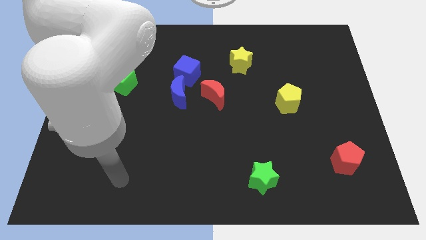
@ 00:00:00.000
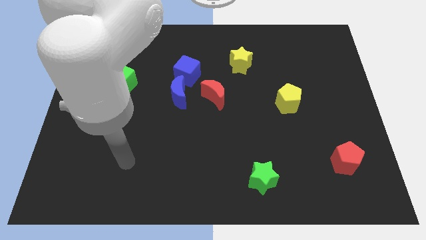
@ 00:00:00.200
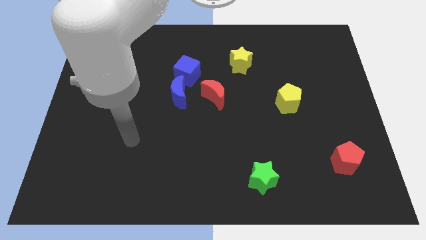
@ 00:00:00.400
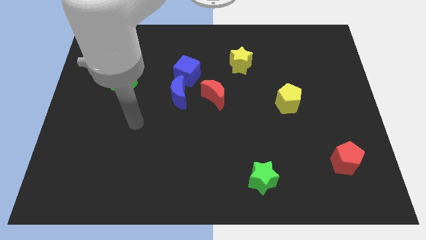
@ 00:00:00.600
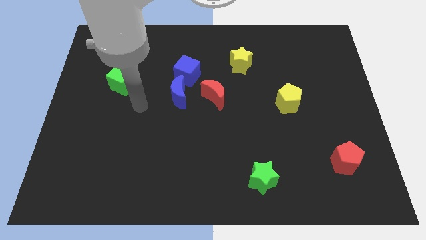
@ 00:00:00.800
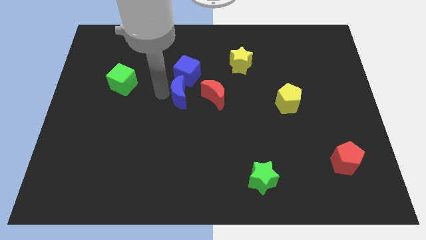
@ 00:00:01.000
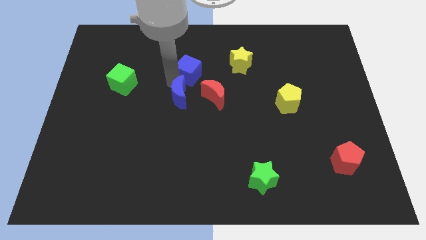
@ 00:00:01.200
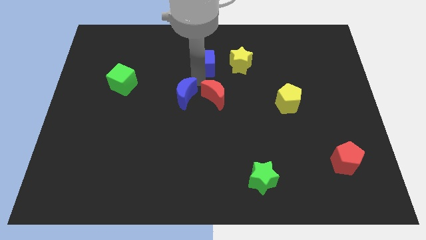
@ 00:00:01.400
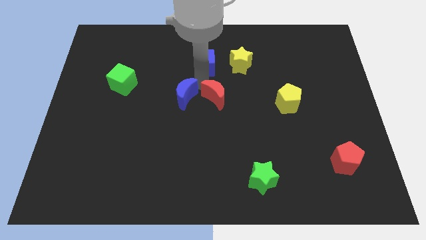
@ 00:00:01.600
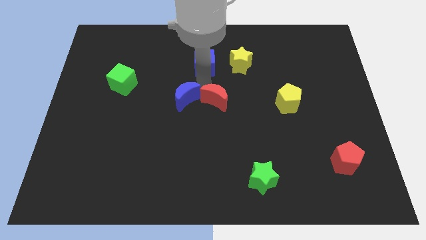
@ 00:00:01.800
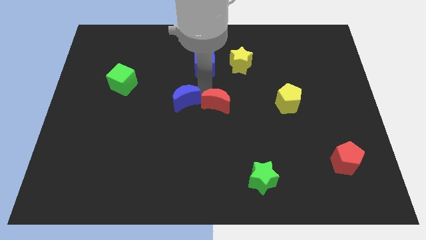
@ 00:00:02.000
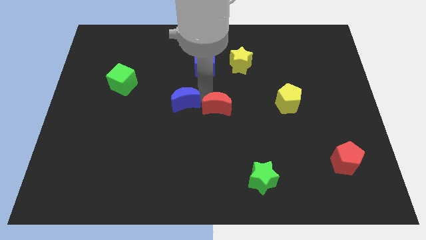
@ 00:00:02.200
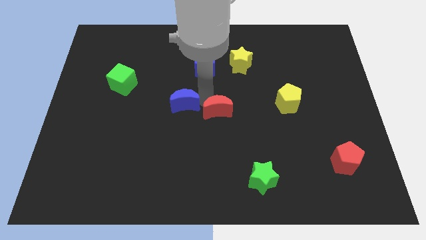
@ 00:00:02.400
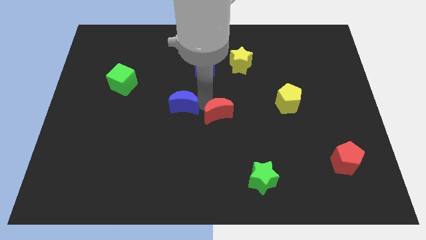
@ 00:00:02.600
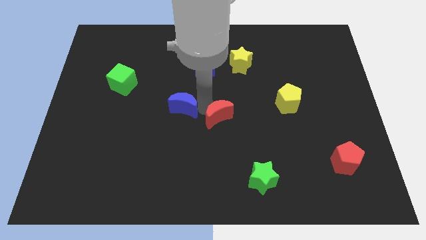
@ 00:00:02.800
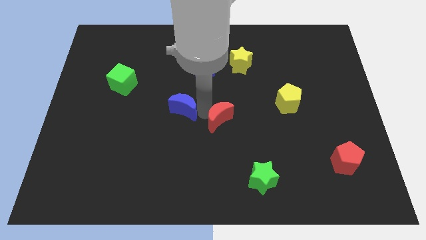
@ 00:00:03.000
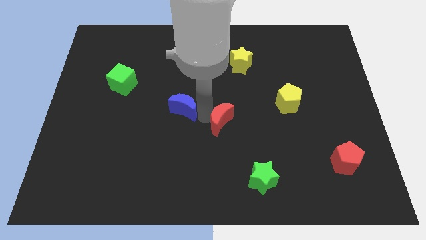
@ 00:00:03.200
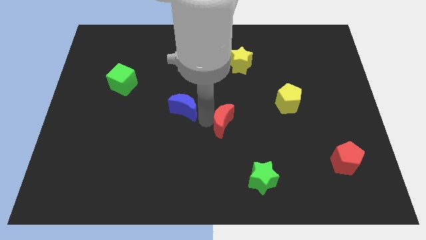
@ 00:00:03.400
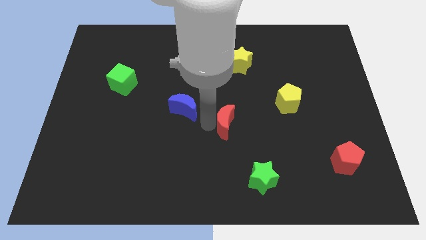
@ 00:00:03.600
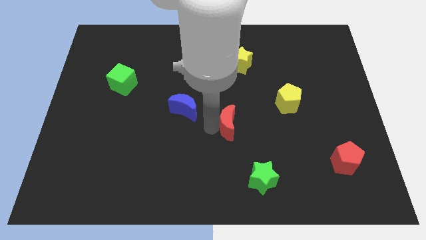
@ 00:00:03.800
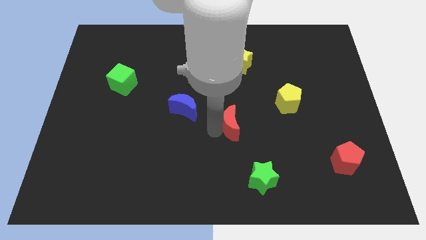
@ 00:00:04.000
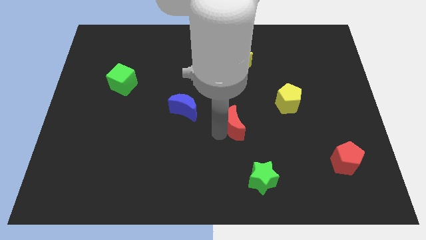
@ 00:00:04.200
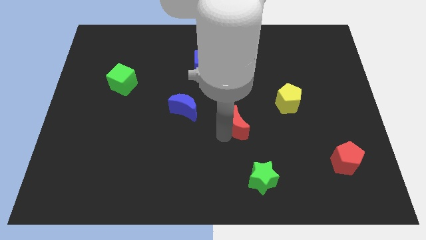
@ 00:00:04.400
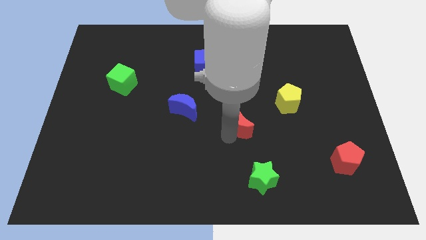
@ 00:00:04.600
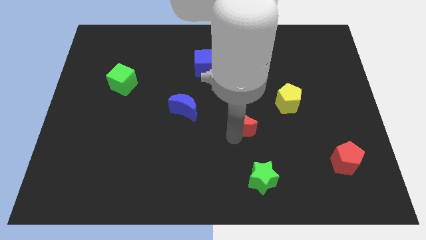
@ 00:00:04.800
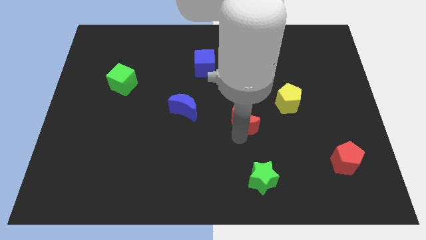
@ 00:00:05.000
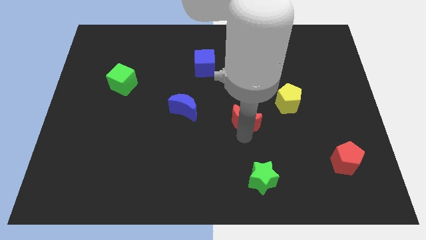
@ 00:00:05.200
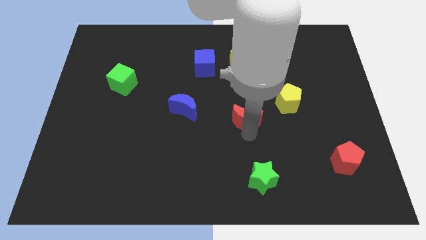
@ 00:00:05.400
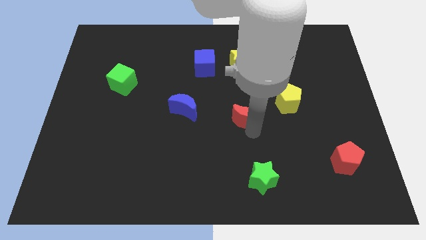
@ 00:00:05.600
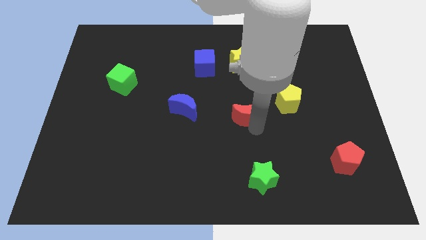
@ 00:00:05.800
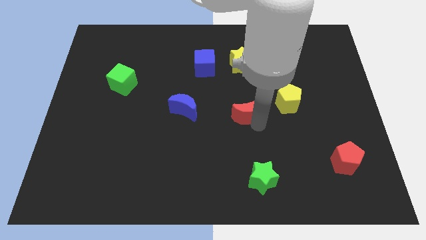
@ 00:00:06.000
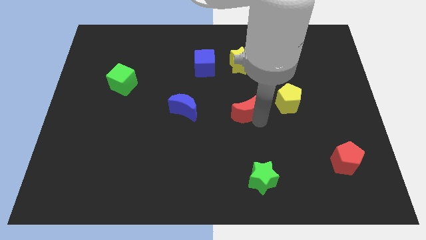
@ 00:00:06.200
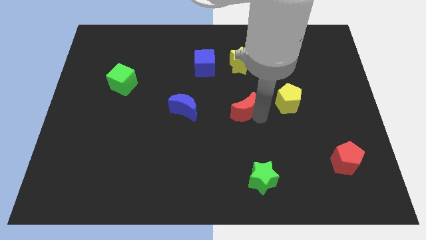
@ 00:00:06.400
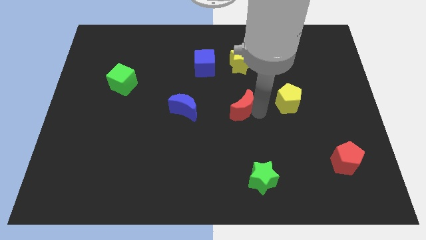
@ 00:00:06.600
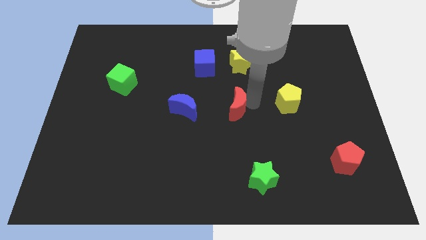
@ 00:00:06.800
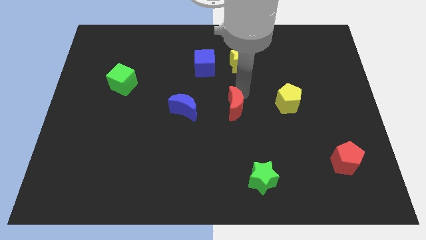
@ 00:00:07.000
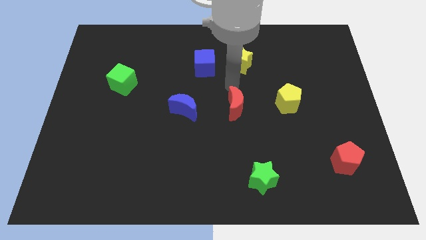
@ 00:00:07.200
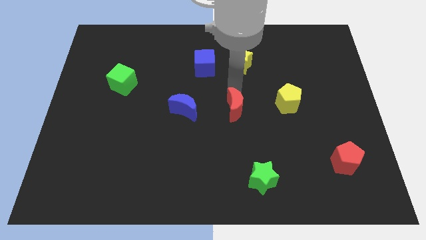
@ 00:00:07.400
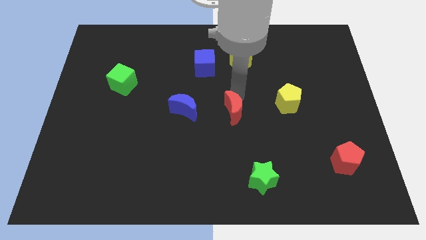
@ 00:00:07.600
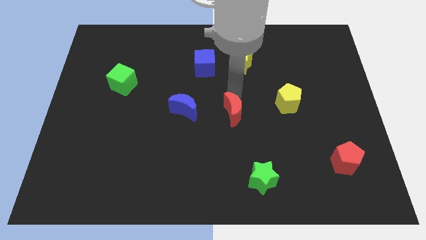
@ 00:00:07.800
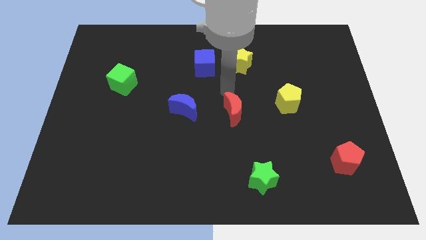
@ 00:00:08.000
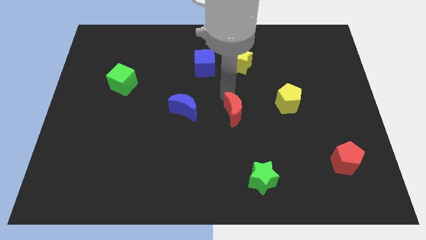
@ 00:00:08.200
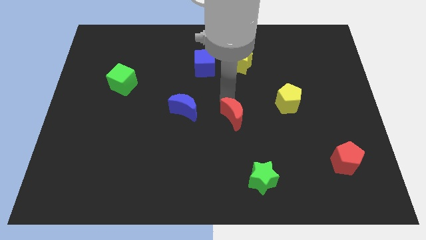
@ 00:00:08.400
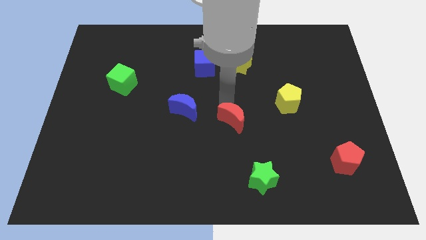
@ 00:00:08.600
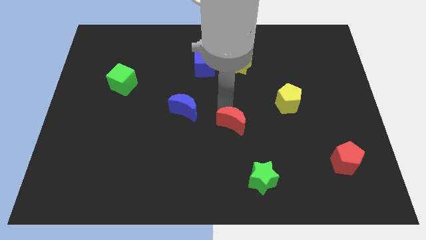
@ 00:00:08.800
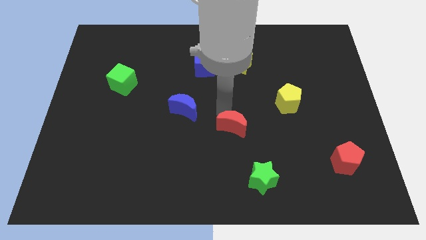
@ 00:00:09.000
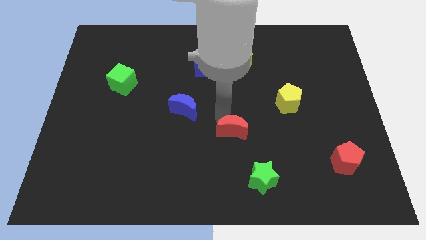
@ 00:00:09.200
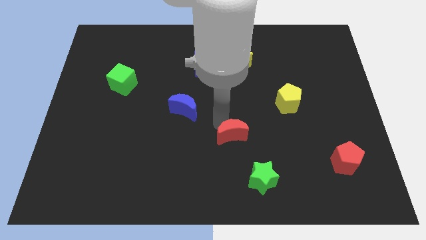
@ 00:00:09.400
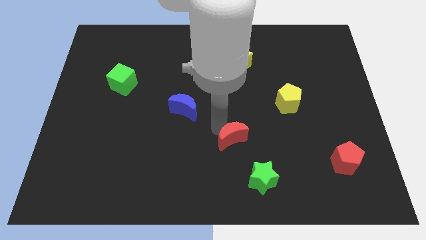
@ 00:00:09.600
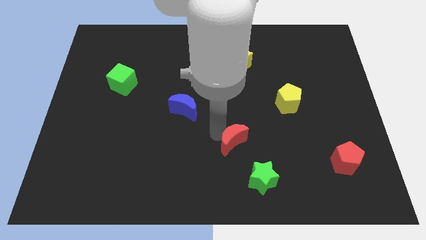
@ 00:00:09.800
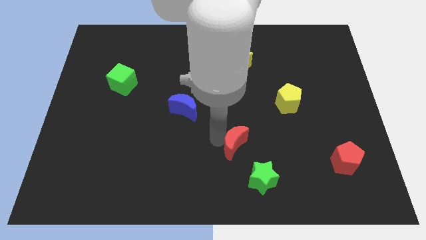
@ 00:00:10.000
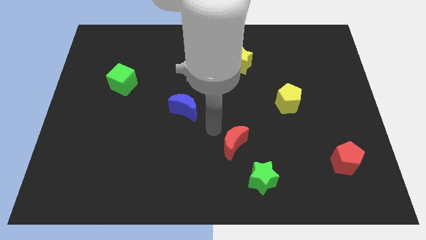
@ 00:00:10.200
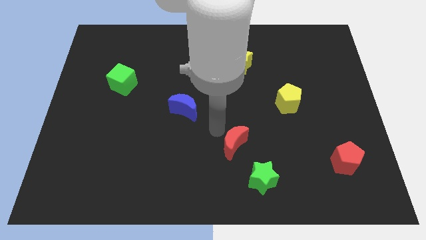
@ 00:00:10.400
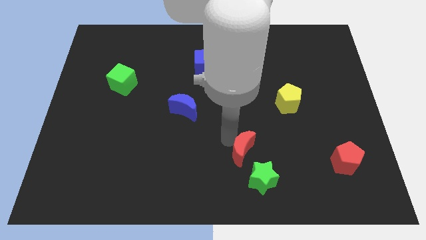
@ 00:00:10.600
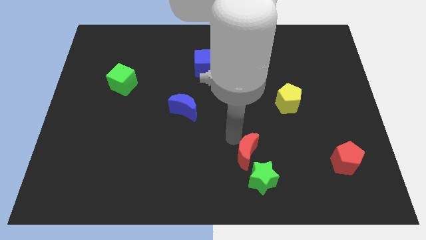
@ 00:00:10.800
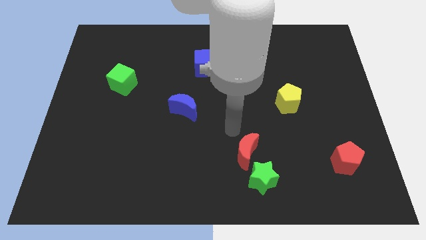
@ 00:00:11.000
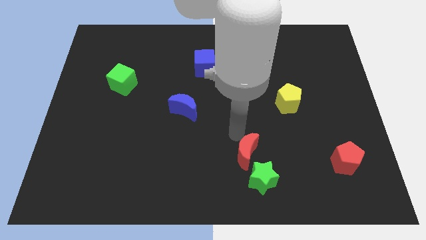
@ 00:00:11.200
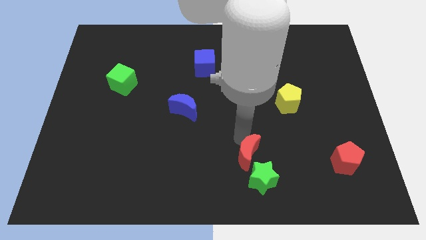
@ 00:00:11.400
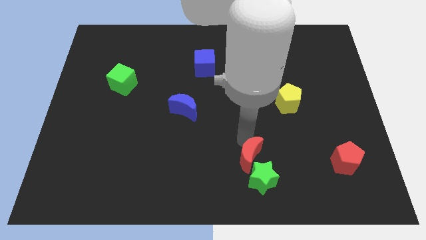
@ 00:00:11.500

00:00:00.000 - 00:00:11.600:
push the red moon to the green star
